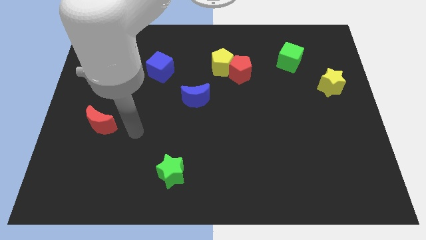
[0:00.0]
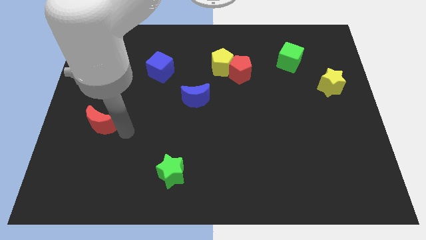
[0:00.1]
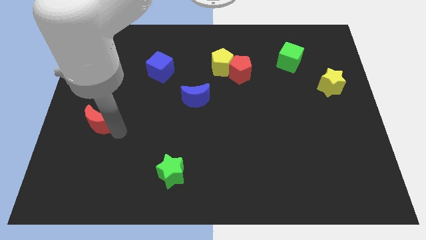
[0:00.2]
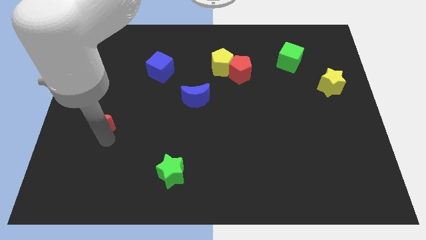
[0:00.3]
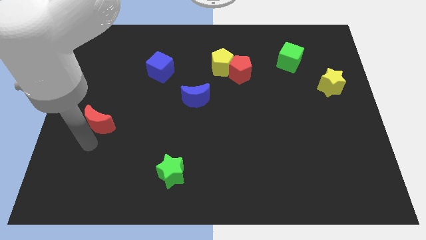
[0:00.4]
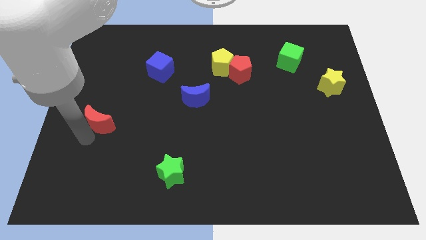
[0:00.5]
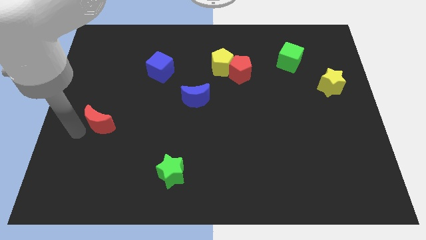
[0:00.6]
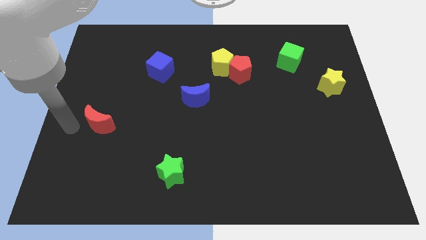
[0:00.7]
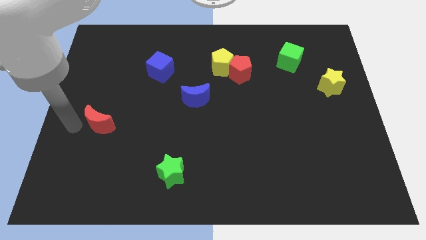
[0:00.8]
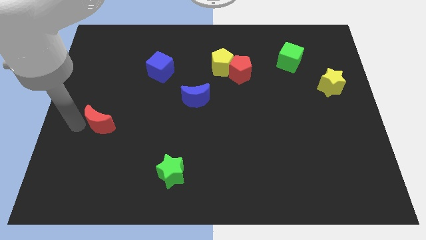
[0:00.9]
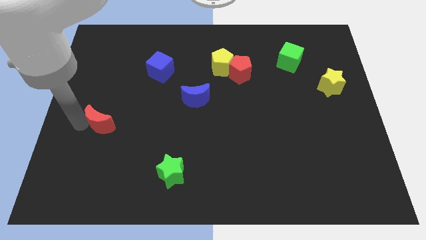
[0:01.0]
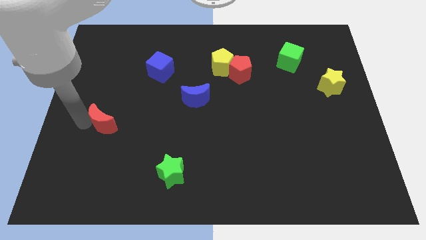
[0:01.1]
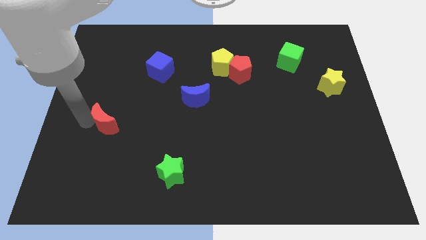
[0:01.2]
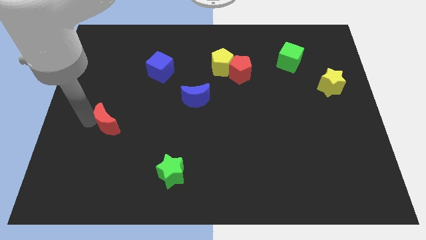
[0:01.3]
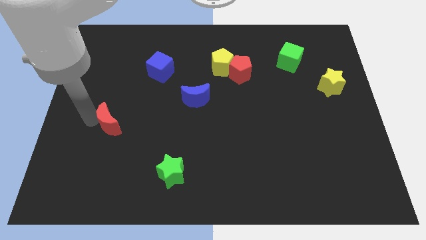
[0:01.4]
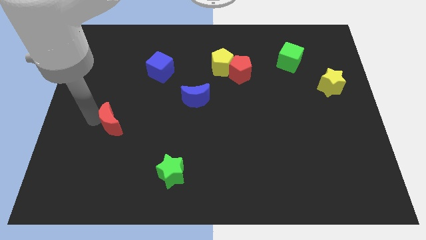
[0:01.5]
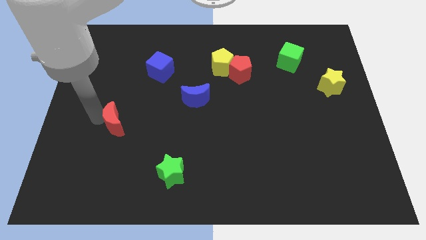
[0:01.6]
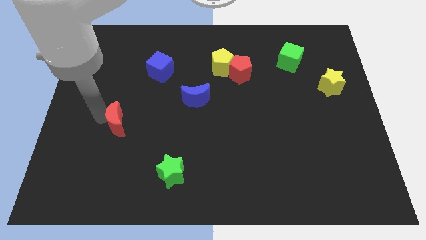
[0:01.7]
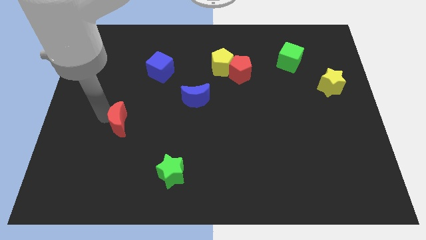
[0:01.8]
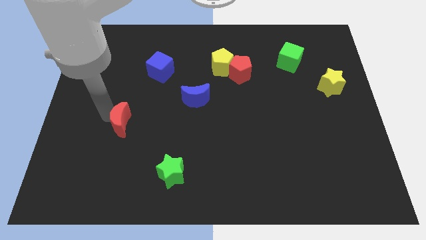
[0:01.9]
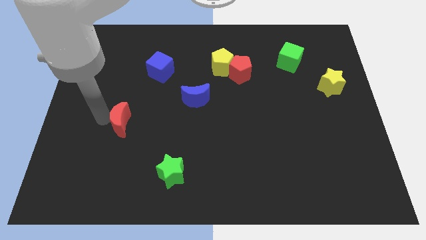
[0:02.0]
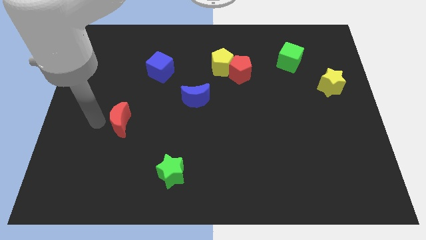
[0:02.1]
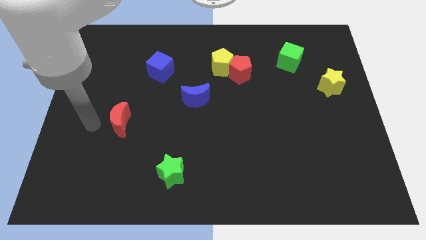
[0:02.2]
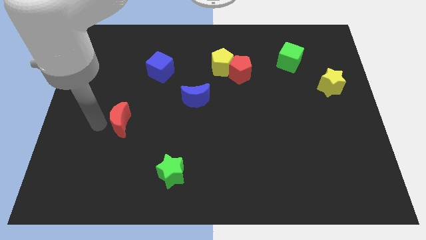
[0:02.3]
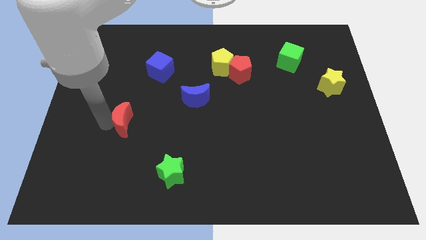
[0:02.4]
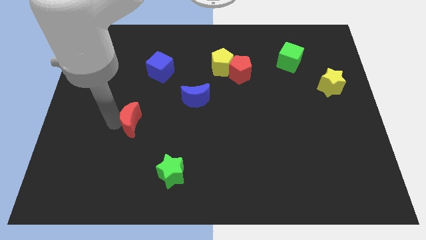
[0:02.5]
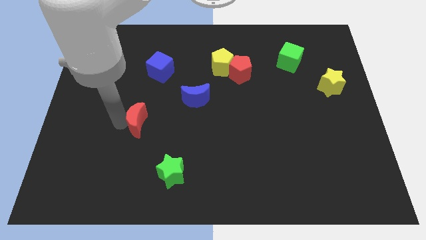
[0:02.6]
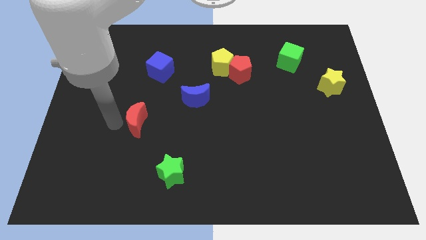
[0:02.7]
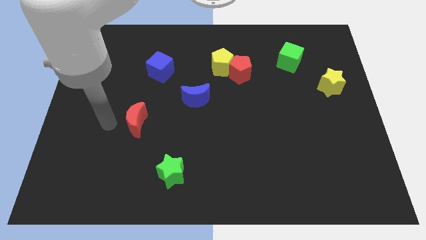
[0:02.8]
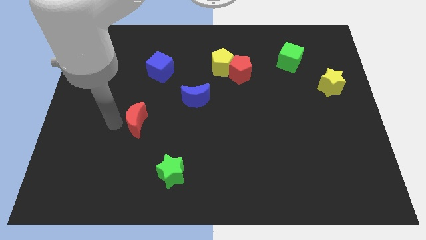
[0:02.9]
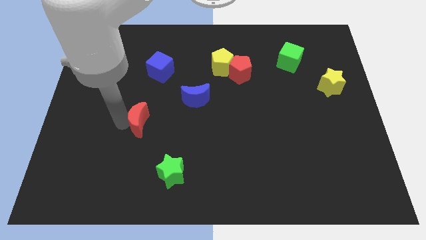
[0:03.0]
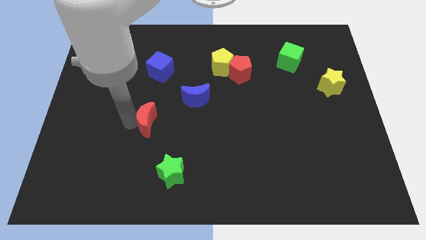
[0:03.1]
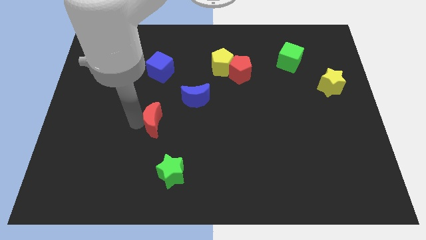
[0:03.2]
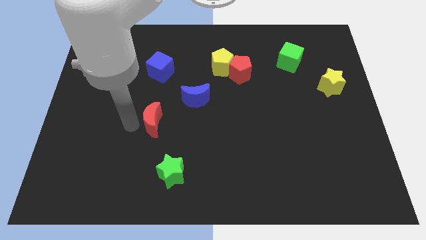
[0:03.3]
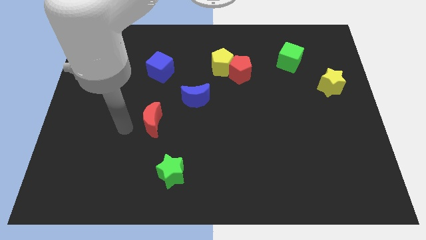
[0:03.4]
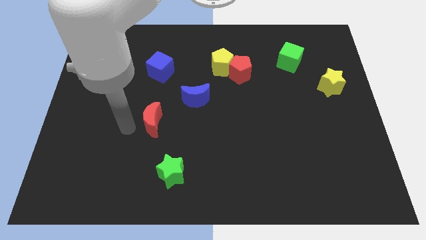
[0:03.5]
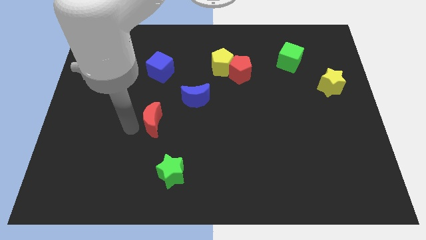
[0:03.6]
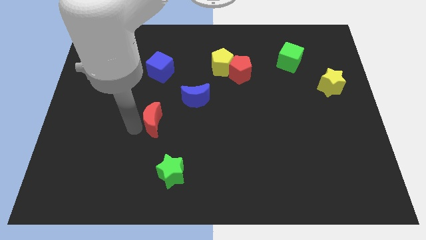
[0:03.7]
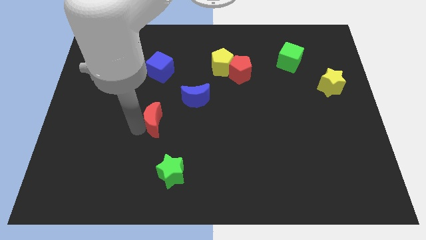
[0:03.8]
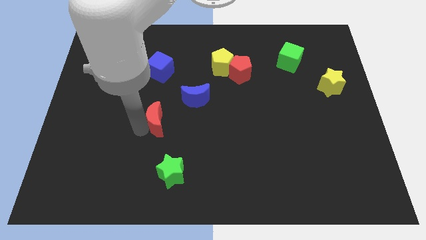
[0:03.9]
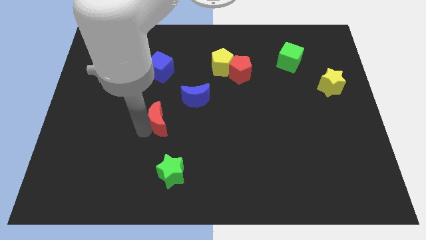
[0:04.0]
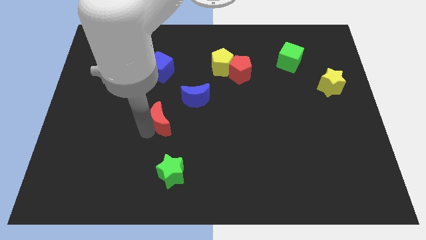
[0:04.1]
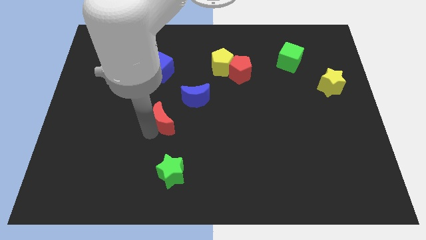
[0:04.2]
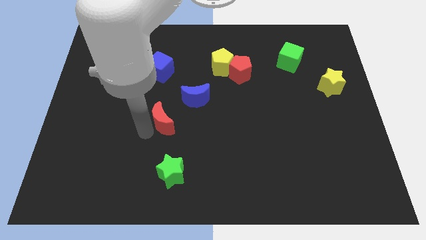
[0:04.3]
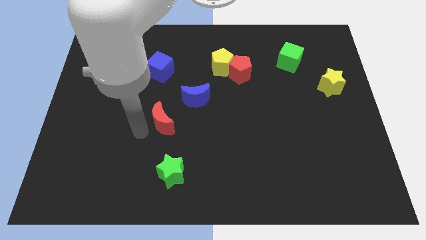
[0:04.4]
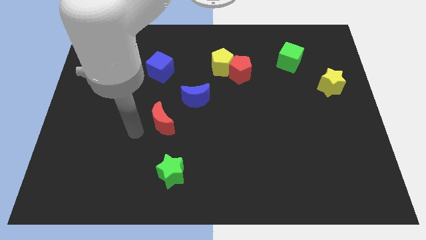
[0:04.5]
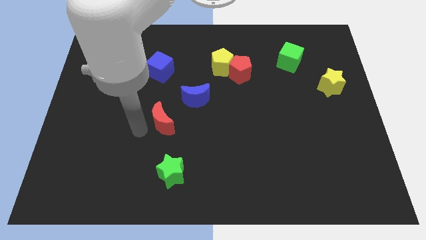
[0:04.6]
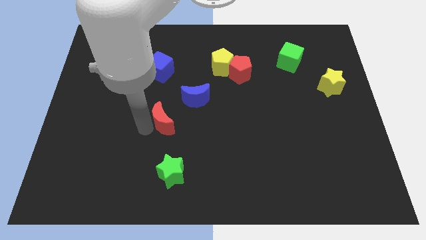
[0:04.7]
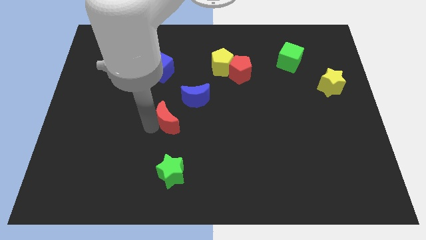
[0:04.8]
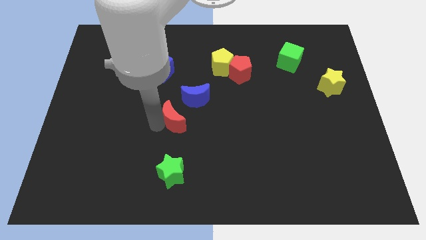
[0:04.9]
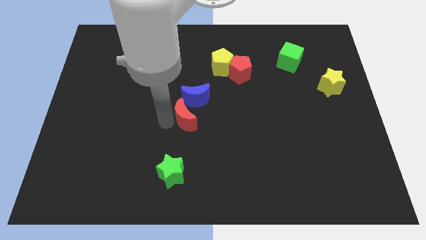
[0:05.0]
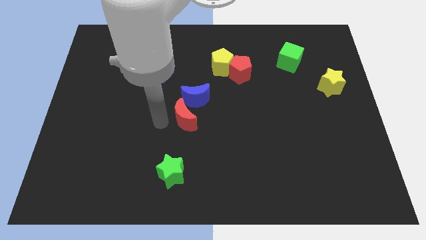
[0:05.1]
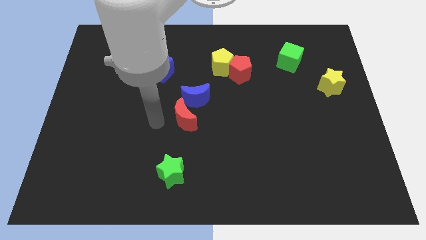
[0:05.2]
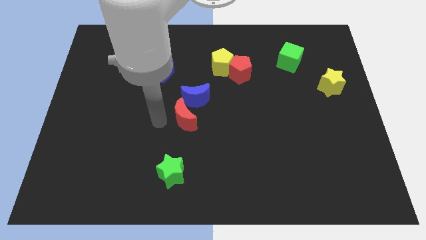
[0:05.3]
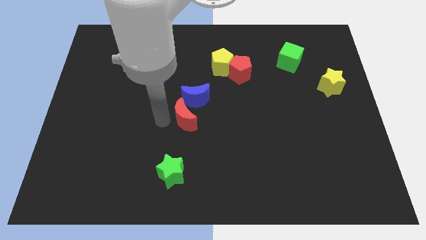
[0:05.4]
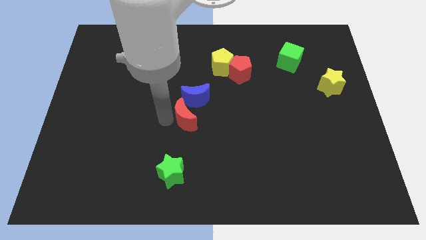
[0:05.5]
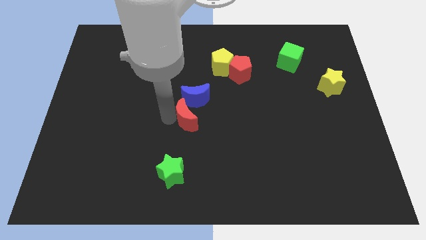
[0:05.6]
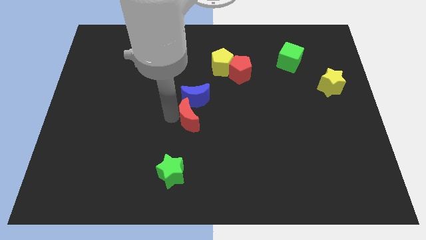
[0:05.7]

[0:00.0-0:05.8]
move the red moon right

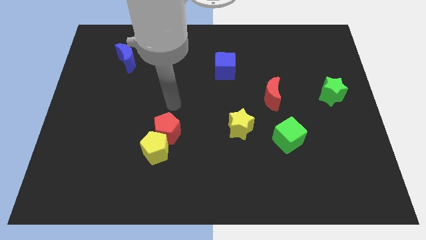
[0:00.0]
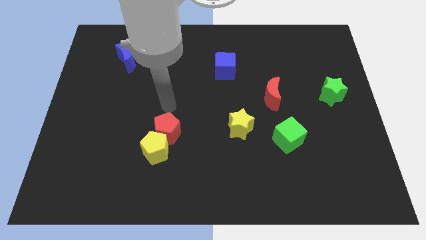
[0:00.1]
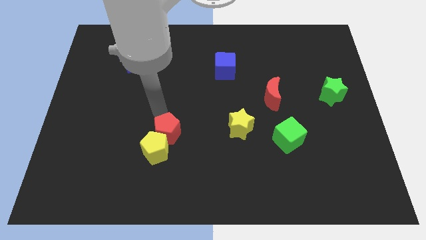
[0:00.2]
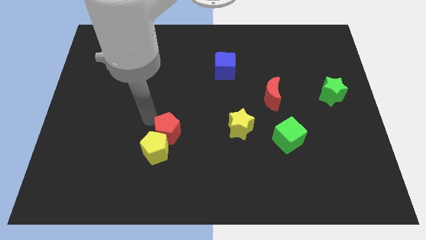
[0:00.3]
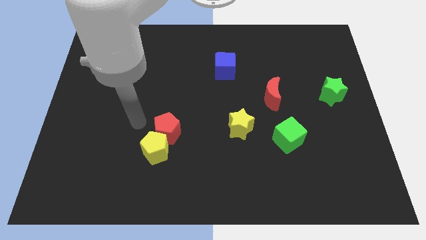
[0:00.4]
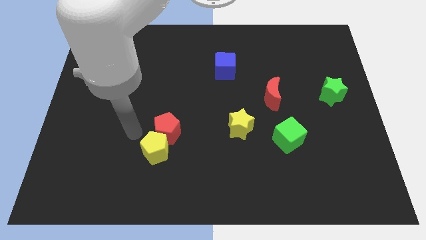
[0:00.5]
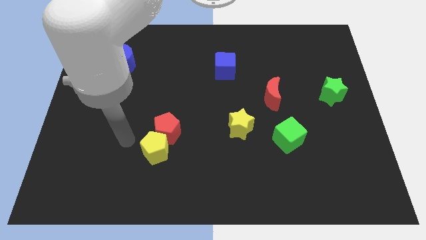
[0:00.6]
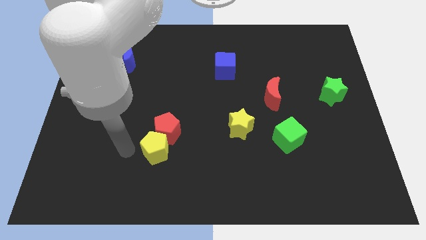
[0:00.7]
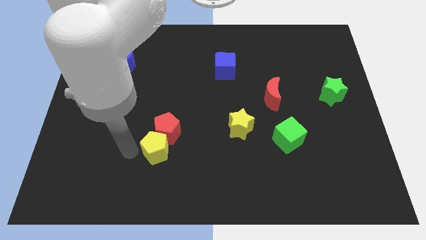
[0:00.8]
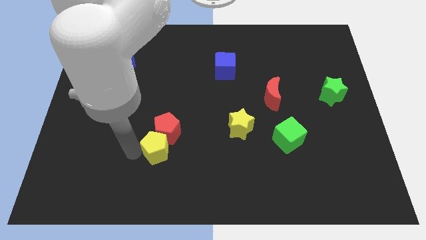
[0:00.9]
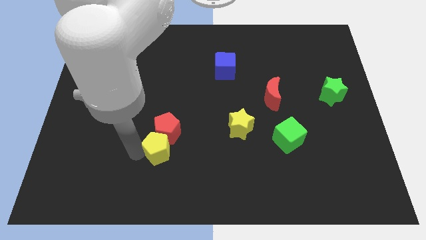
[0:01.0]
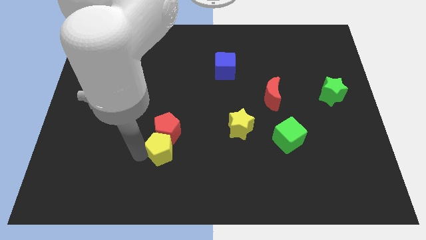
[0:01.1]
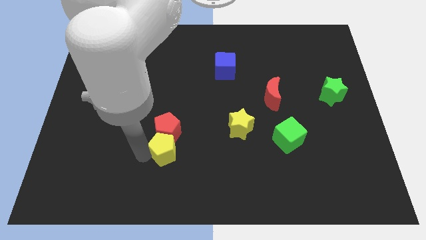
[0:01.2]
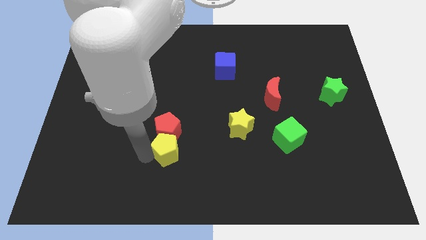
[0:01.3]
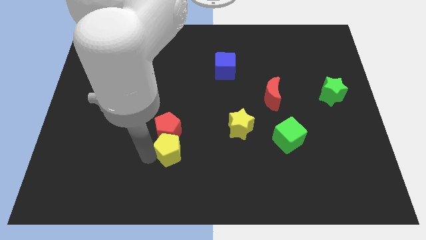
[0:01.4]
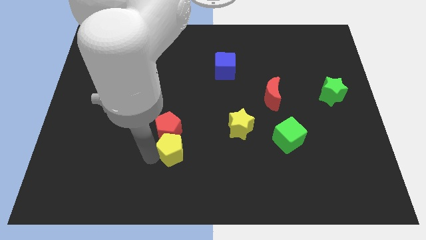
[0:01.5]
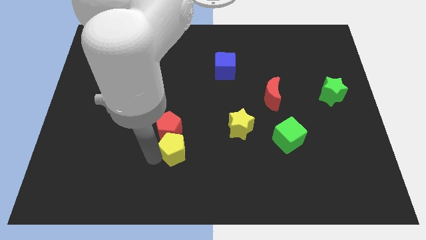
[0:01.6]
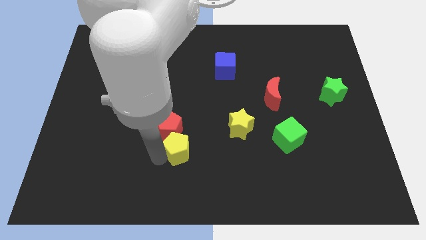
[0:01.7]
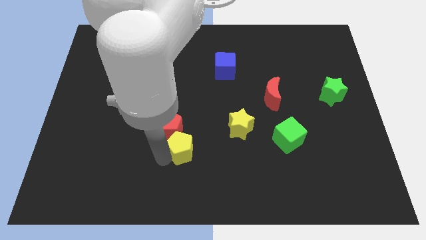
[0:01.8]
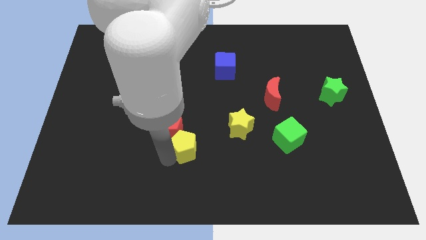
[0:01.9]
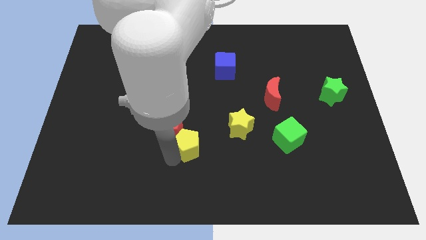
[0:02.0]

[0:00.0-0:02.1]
push the yellow pentagon slightly right

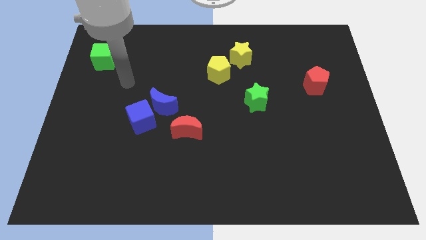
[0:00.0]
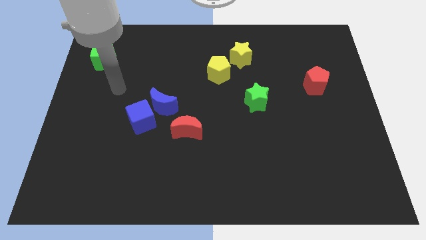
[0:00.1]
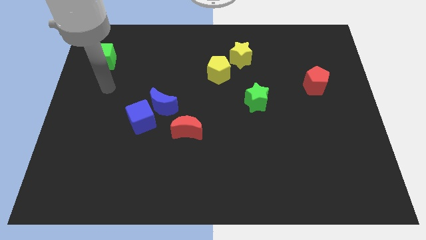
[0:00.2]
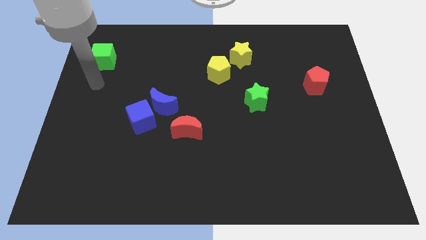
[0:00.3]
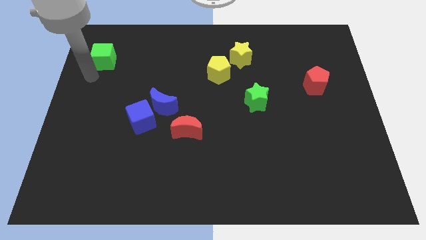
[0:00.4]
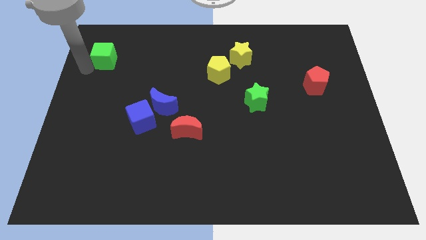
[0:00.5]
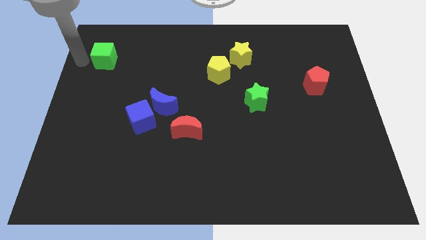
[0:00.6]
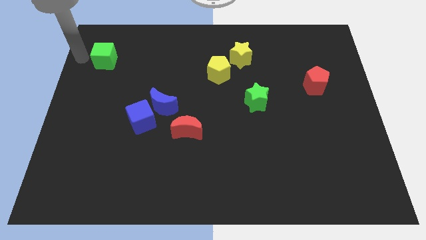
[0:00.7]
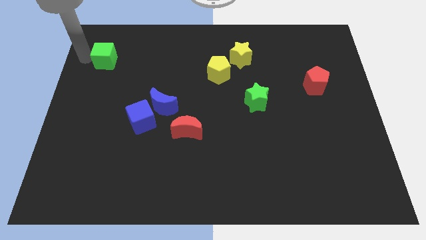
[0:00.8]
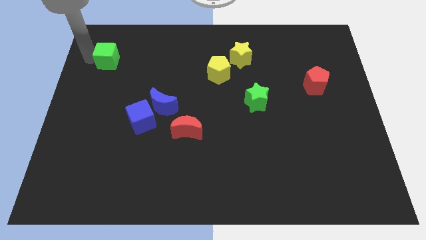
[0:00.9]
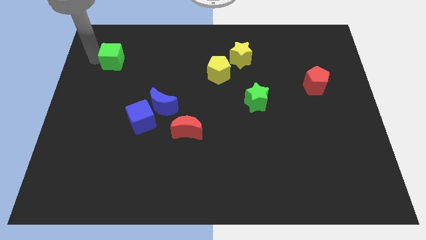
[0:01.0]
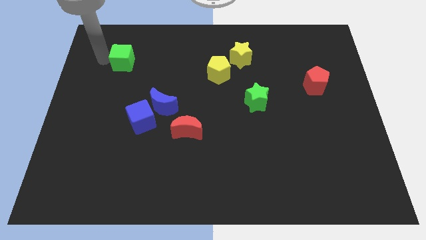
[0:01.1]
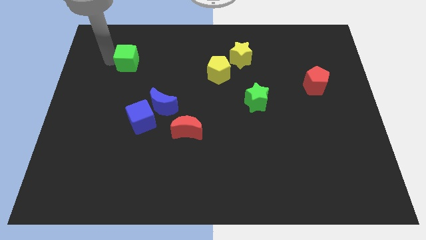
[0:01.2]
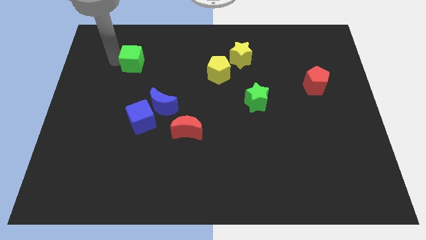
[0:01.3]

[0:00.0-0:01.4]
slide the green cube right a bit
